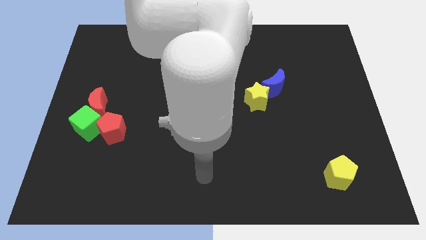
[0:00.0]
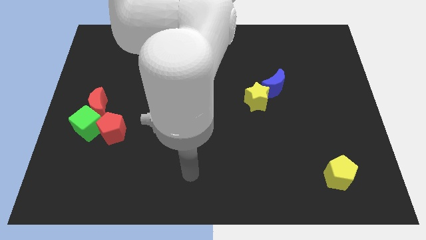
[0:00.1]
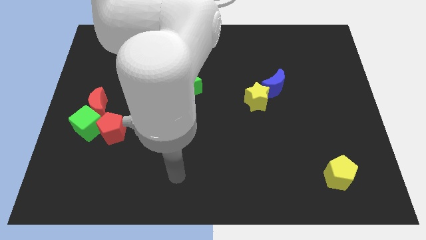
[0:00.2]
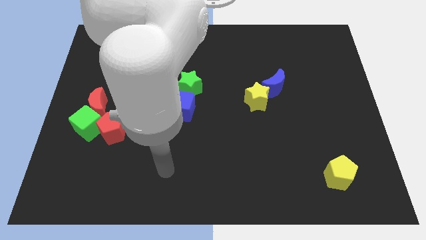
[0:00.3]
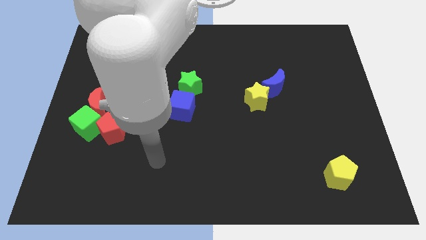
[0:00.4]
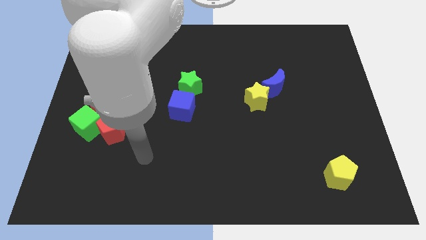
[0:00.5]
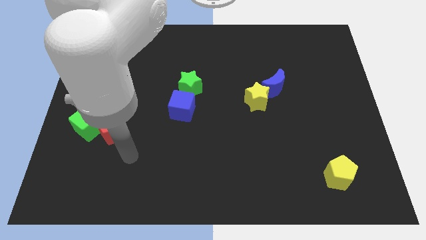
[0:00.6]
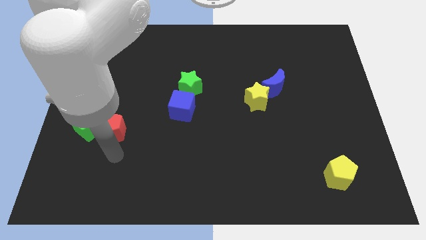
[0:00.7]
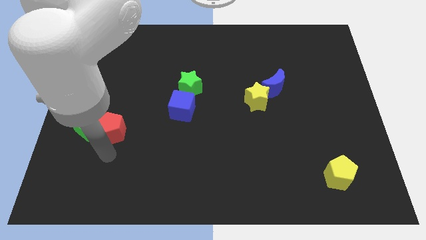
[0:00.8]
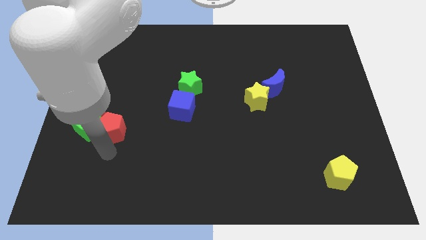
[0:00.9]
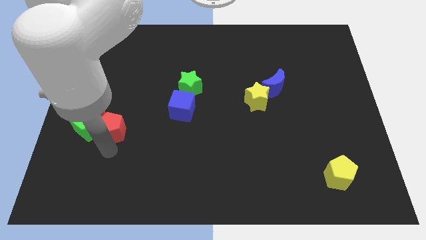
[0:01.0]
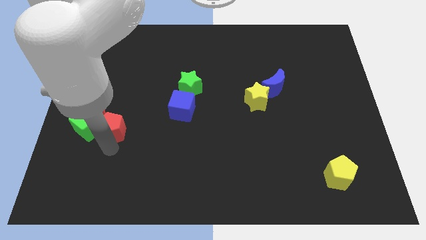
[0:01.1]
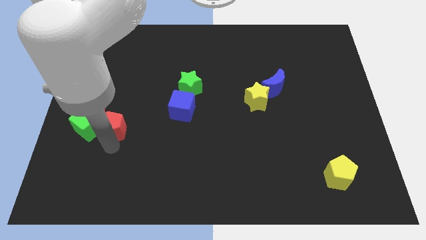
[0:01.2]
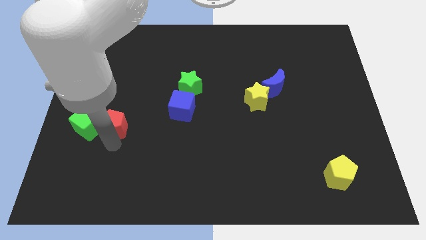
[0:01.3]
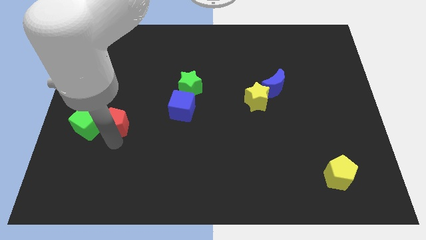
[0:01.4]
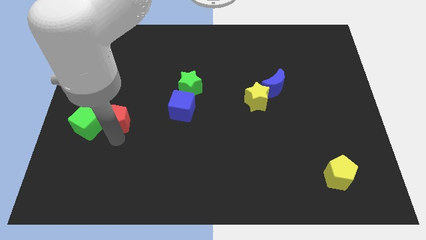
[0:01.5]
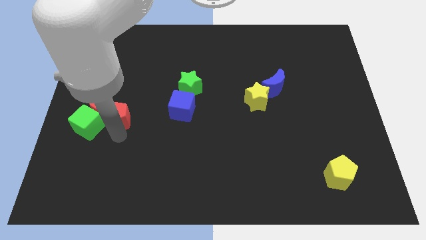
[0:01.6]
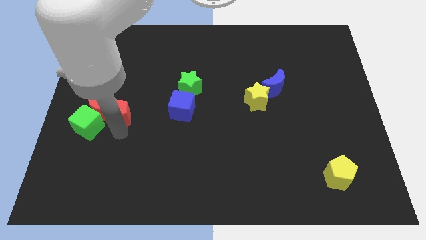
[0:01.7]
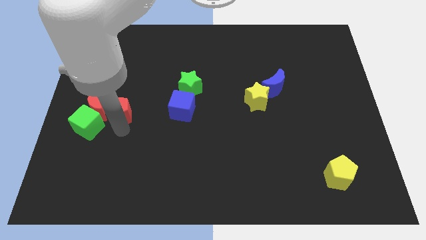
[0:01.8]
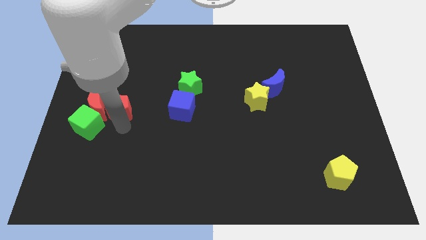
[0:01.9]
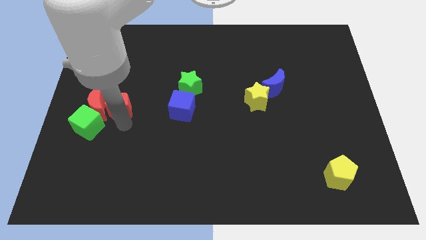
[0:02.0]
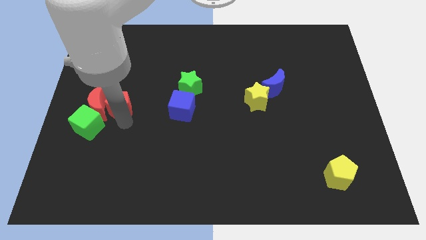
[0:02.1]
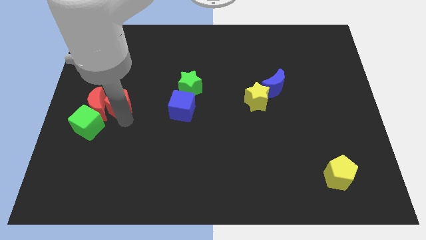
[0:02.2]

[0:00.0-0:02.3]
slightly move the red pentagon upwards

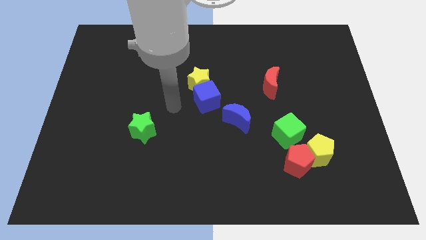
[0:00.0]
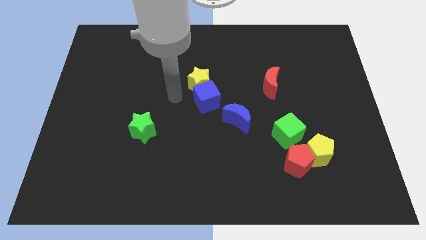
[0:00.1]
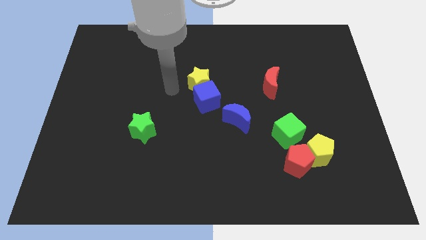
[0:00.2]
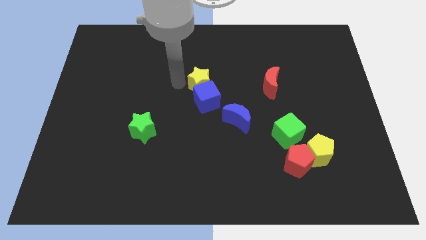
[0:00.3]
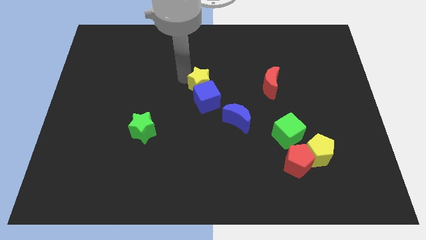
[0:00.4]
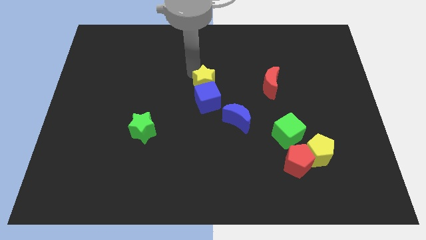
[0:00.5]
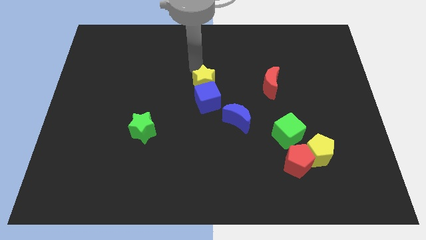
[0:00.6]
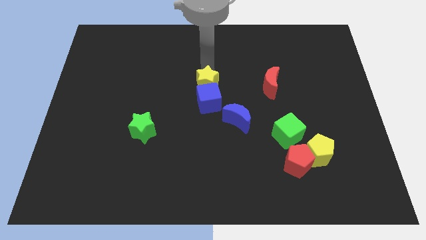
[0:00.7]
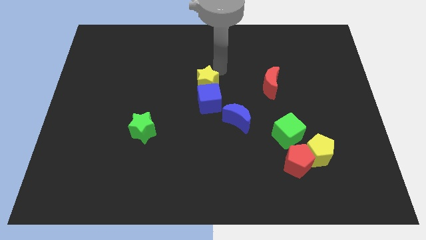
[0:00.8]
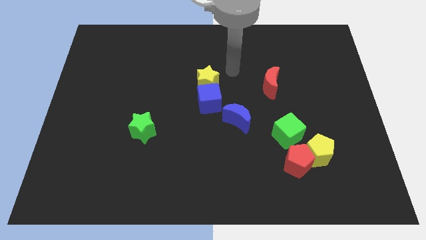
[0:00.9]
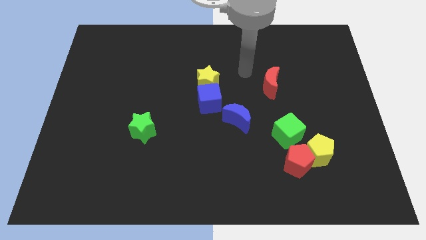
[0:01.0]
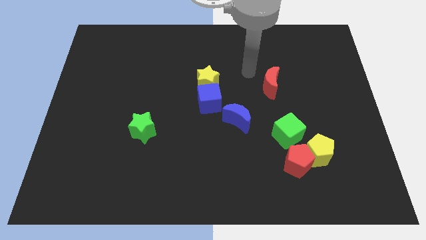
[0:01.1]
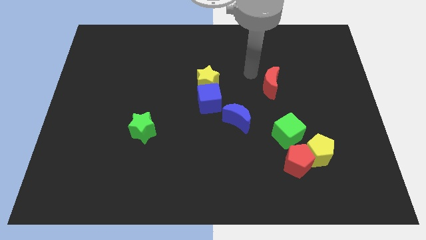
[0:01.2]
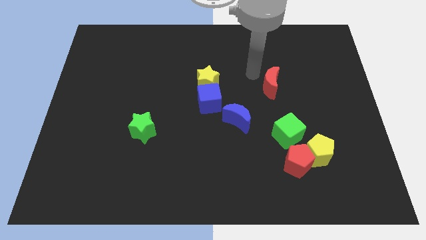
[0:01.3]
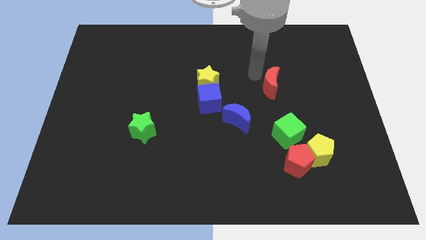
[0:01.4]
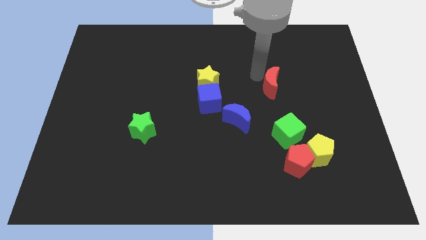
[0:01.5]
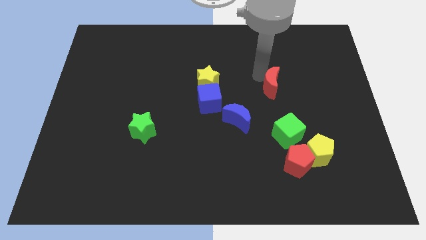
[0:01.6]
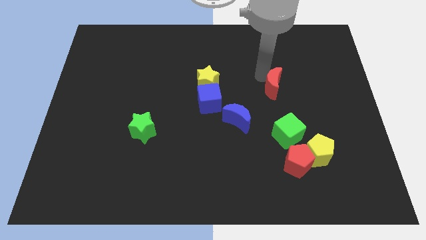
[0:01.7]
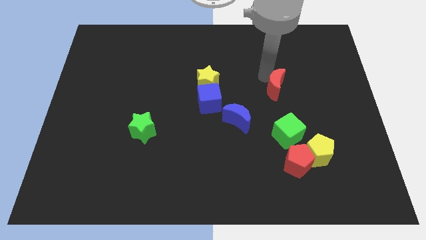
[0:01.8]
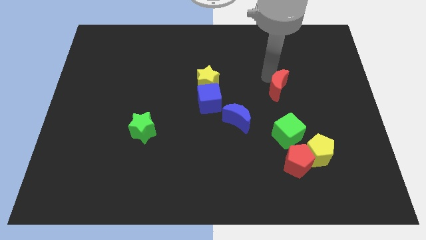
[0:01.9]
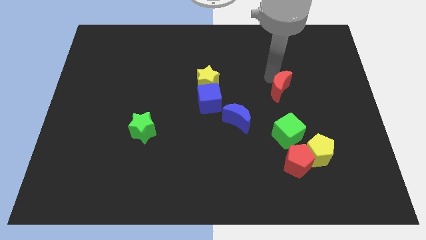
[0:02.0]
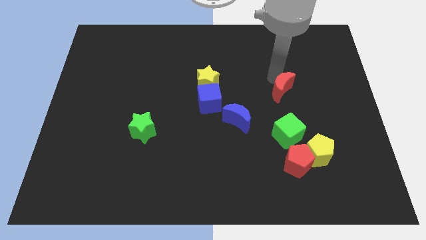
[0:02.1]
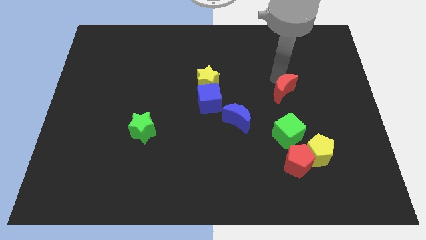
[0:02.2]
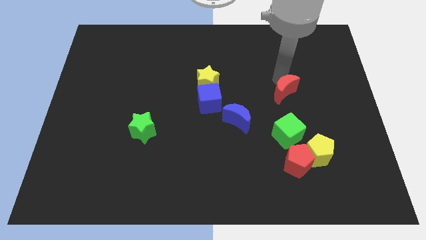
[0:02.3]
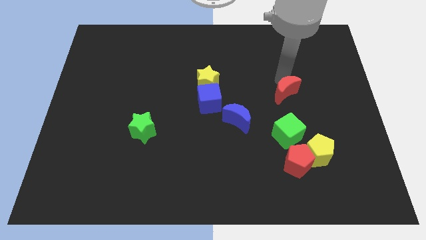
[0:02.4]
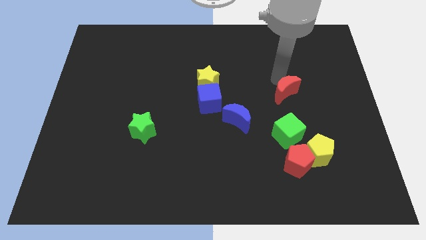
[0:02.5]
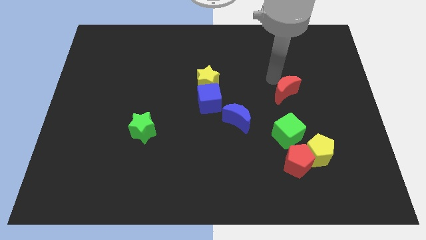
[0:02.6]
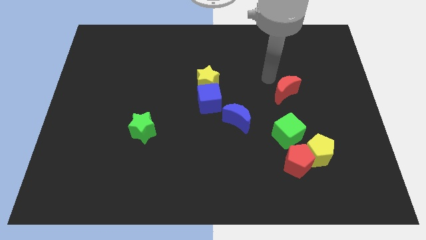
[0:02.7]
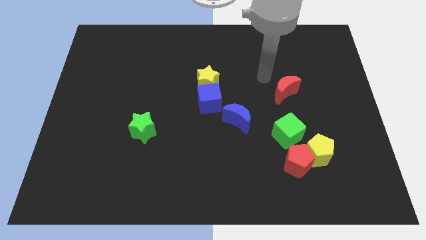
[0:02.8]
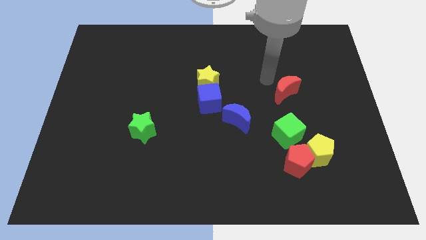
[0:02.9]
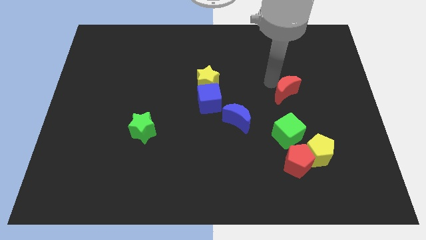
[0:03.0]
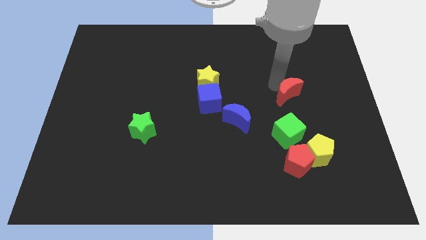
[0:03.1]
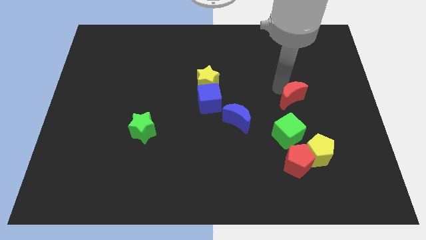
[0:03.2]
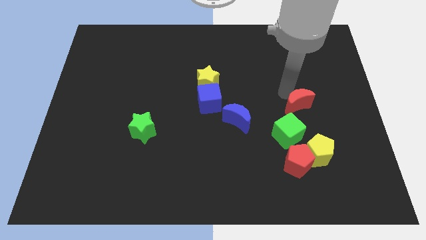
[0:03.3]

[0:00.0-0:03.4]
slide the red moon downwards and to the right diagonally slightly

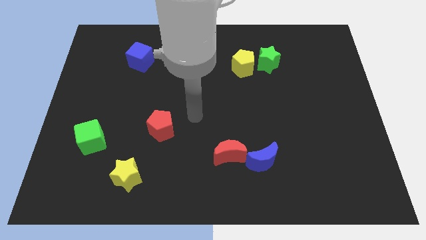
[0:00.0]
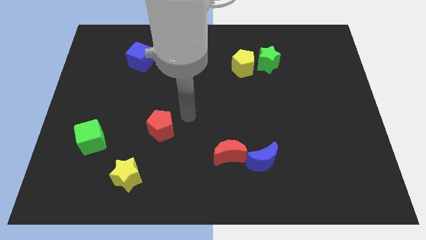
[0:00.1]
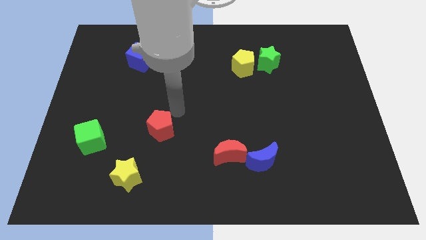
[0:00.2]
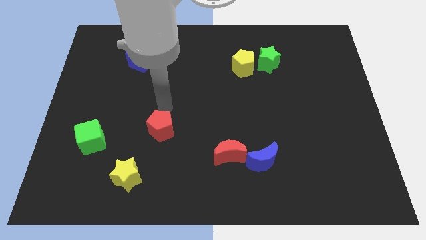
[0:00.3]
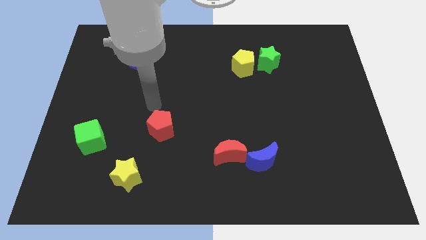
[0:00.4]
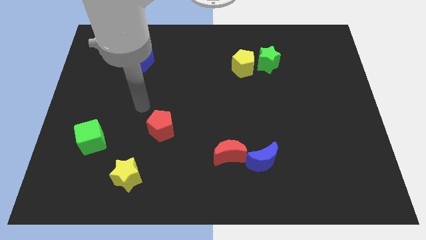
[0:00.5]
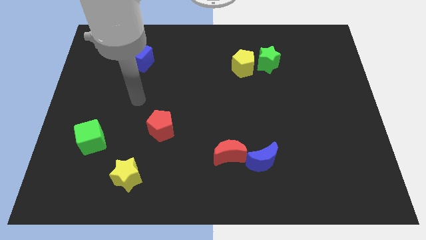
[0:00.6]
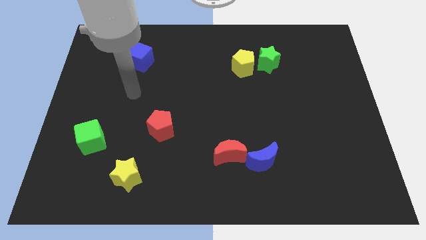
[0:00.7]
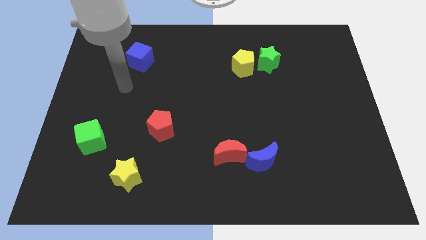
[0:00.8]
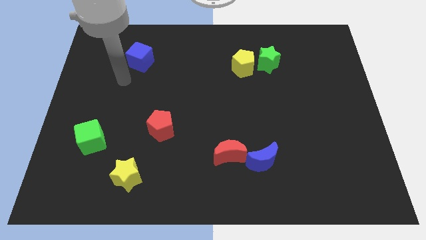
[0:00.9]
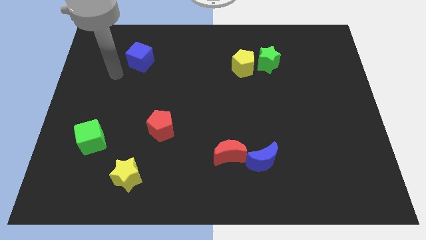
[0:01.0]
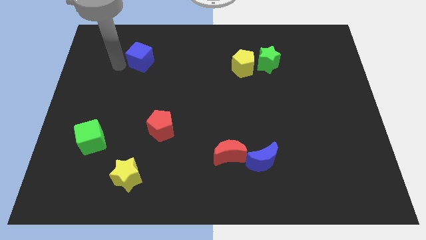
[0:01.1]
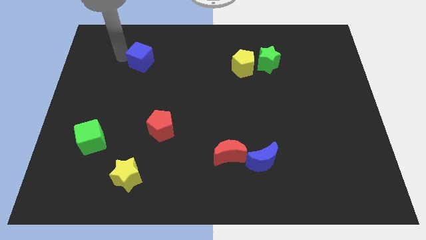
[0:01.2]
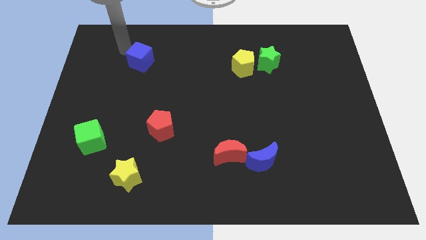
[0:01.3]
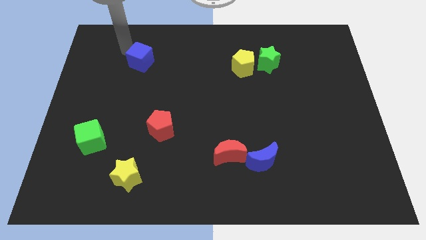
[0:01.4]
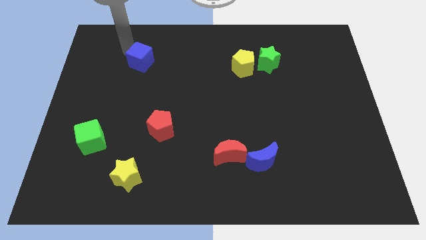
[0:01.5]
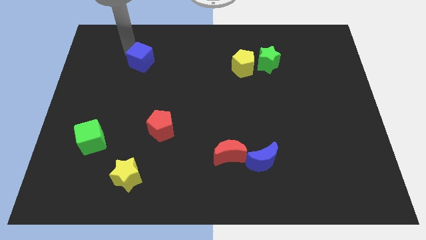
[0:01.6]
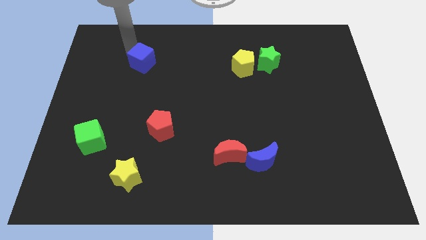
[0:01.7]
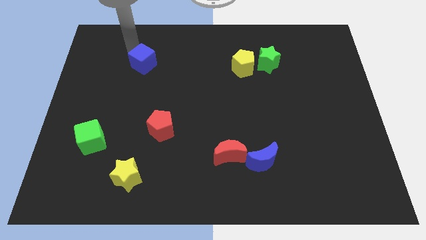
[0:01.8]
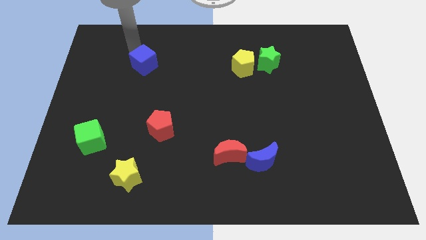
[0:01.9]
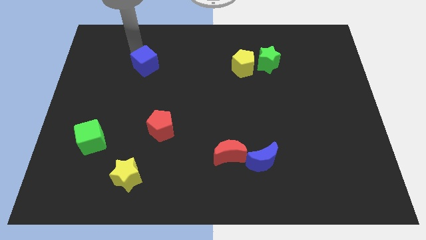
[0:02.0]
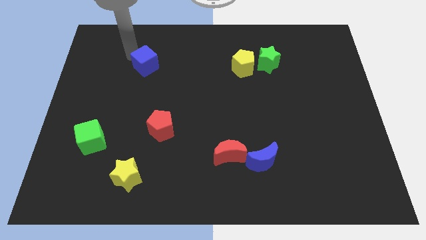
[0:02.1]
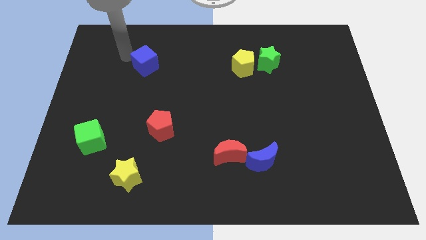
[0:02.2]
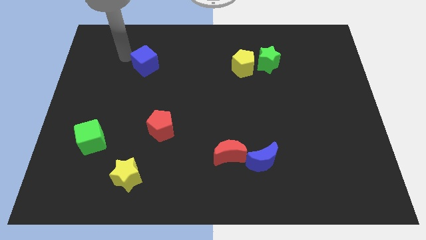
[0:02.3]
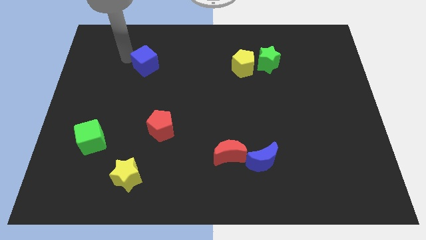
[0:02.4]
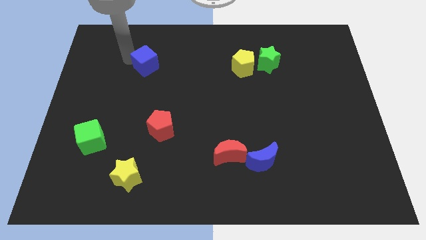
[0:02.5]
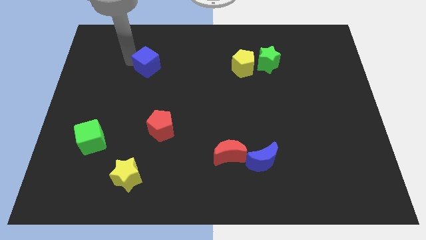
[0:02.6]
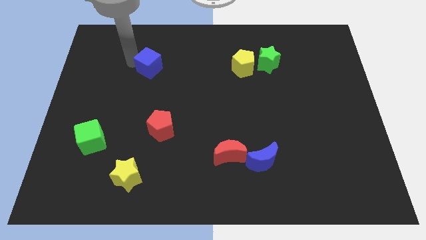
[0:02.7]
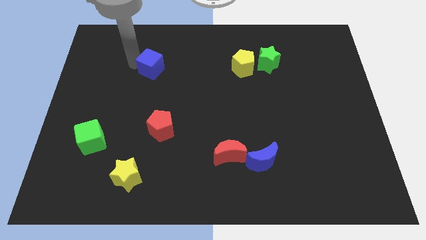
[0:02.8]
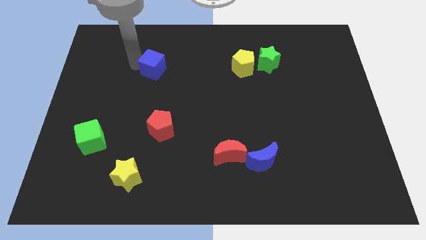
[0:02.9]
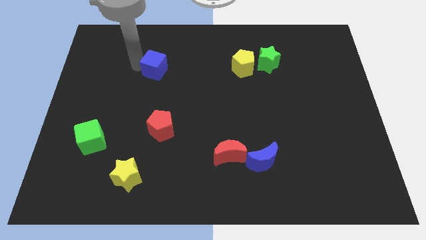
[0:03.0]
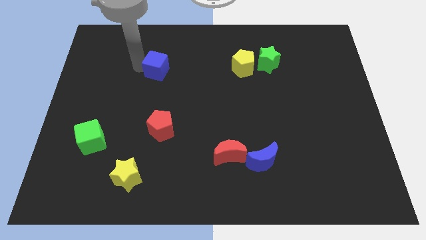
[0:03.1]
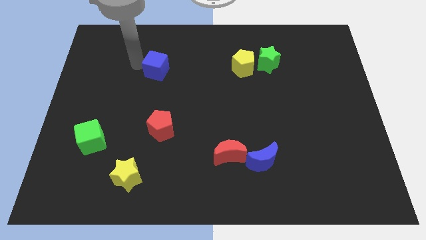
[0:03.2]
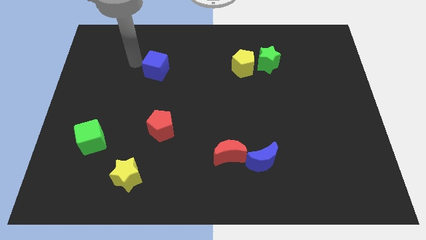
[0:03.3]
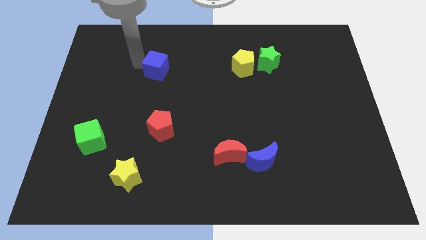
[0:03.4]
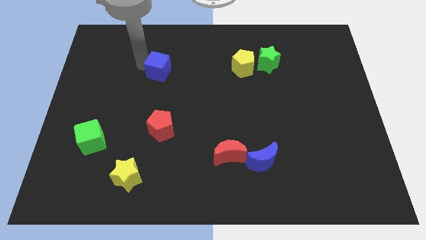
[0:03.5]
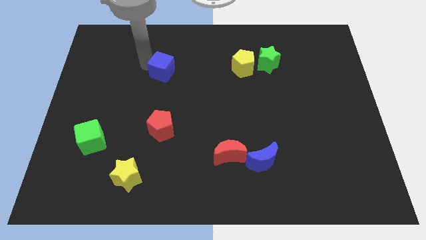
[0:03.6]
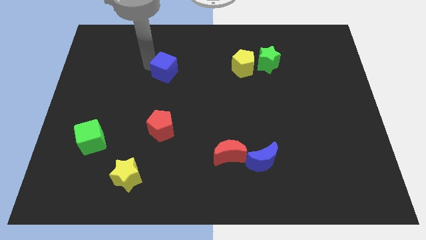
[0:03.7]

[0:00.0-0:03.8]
slightly move the blue cube down and to the right
